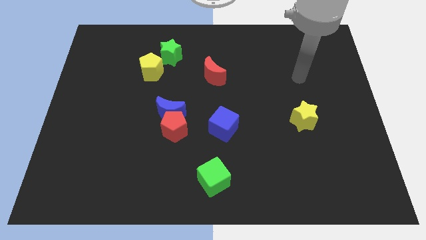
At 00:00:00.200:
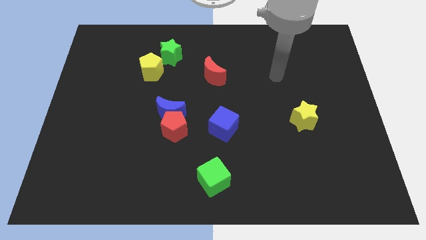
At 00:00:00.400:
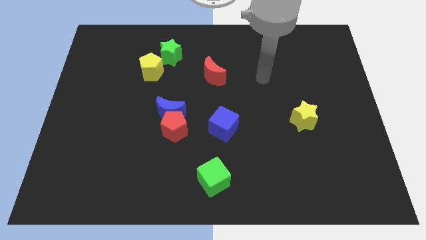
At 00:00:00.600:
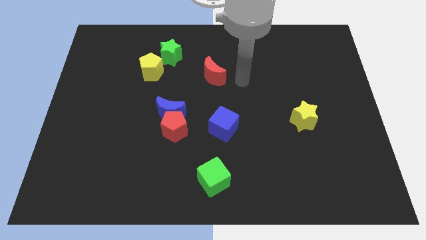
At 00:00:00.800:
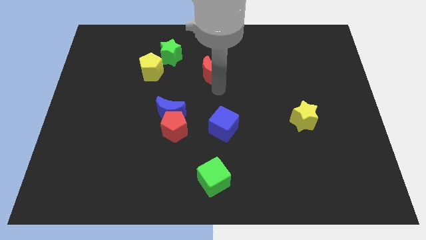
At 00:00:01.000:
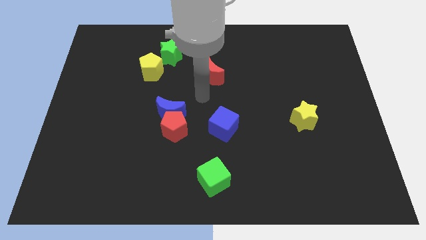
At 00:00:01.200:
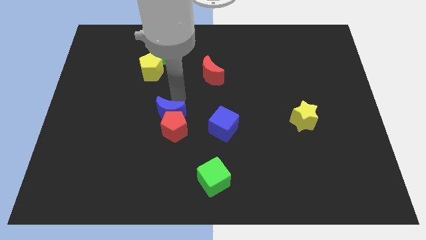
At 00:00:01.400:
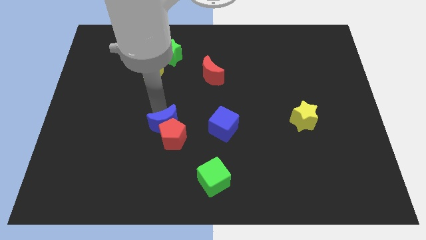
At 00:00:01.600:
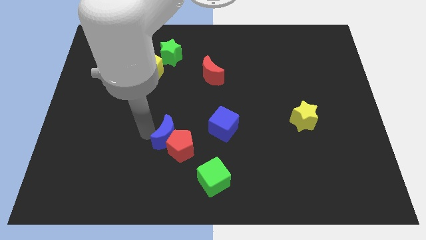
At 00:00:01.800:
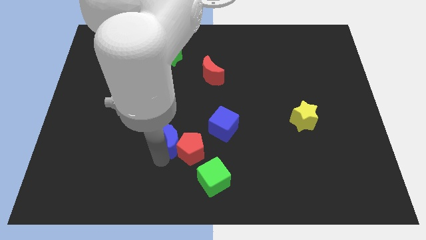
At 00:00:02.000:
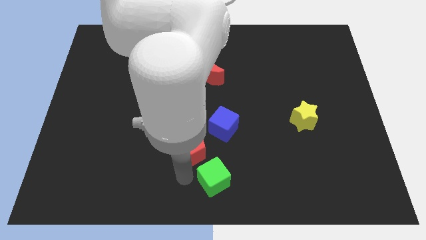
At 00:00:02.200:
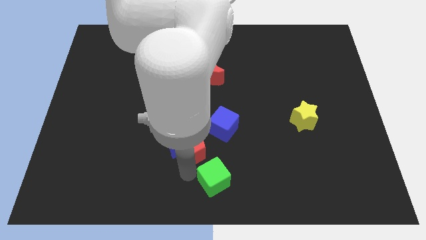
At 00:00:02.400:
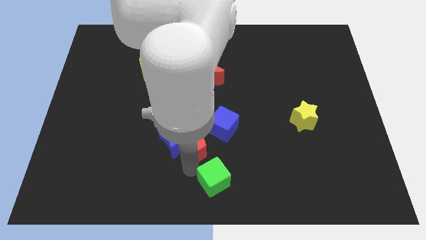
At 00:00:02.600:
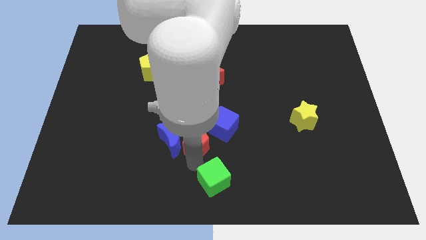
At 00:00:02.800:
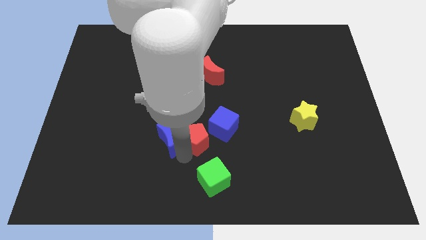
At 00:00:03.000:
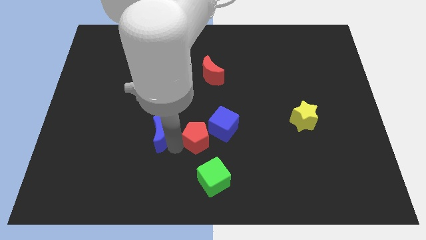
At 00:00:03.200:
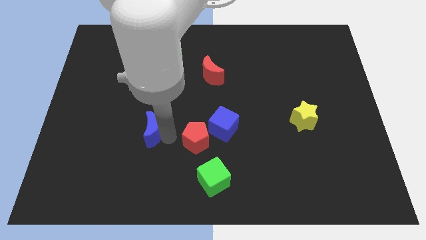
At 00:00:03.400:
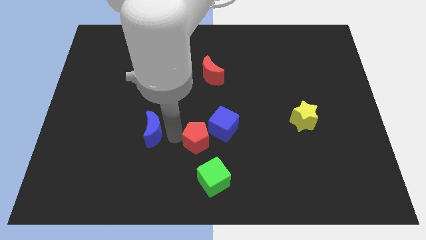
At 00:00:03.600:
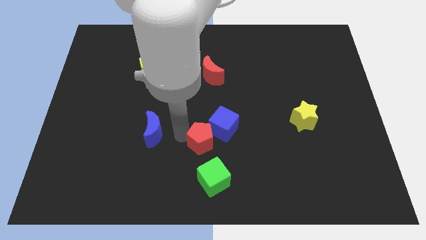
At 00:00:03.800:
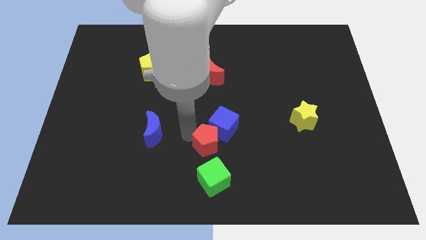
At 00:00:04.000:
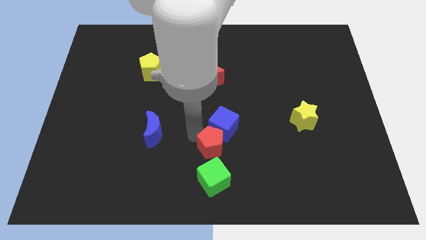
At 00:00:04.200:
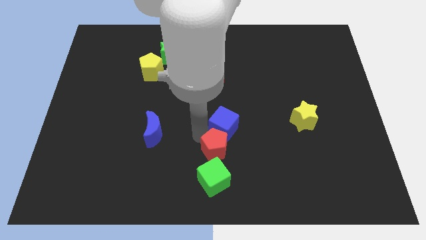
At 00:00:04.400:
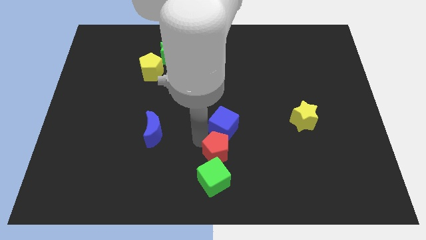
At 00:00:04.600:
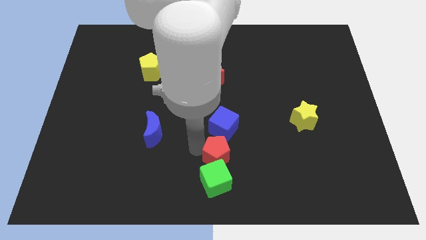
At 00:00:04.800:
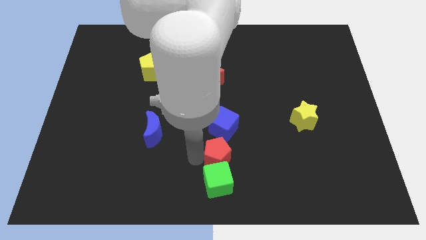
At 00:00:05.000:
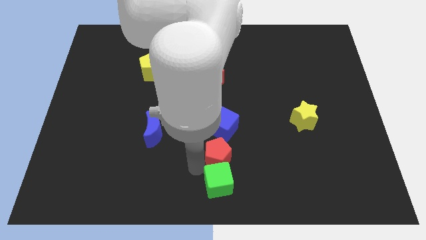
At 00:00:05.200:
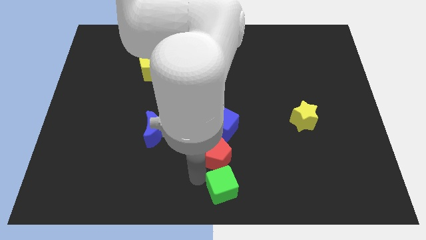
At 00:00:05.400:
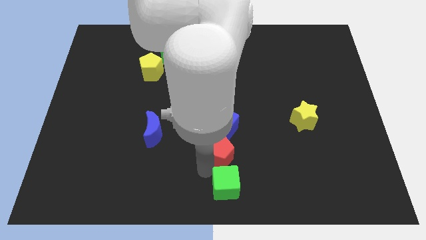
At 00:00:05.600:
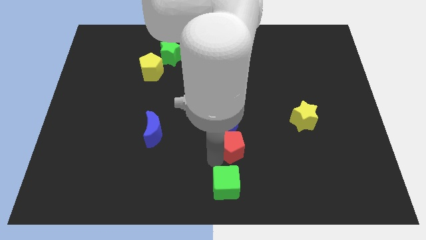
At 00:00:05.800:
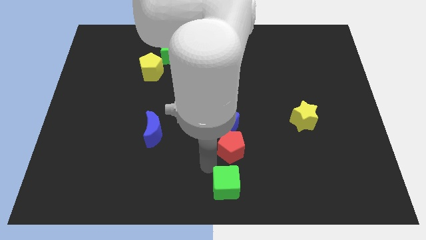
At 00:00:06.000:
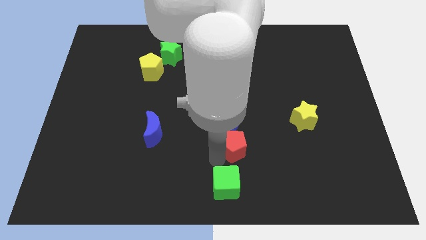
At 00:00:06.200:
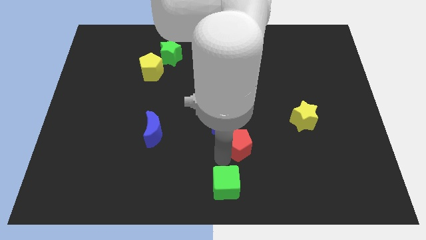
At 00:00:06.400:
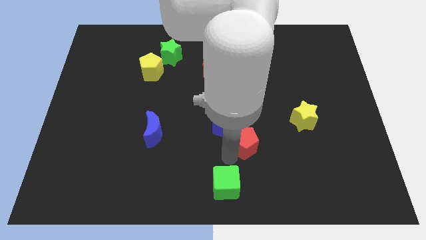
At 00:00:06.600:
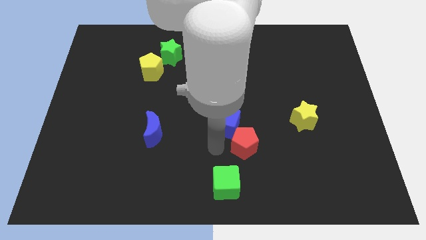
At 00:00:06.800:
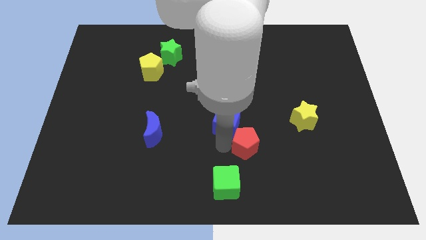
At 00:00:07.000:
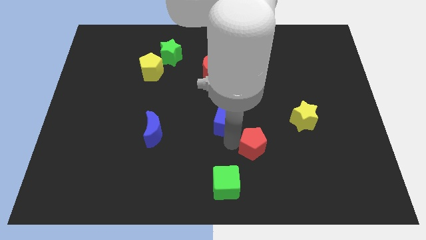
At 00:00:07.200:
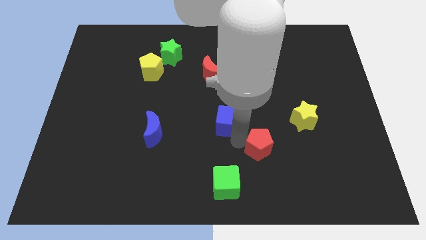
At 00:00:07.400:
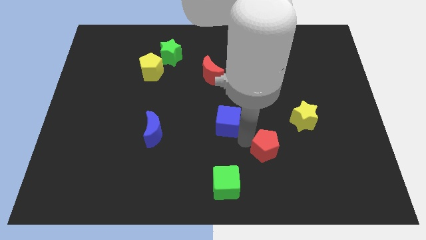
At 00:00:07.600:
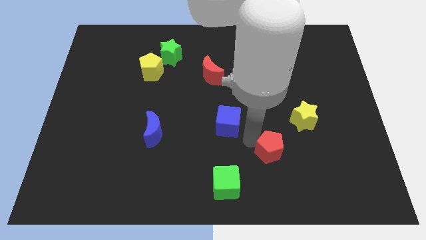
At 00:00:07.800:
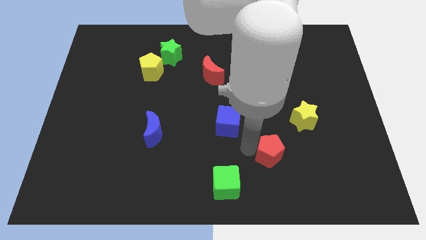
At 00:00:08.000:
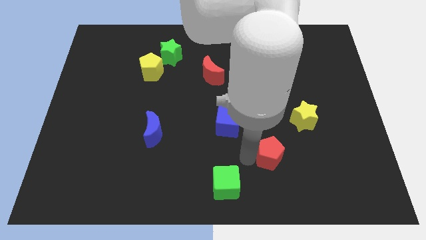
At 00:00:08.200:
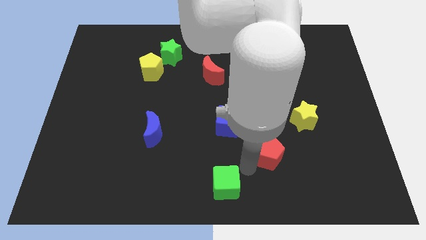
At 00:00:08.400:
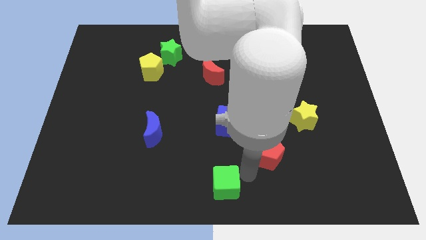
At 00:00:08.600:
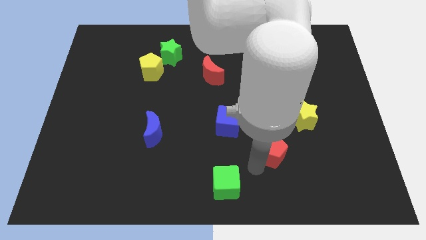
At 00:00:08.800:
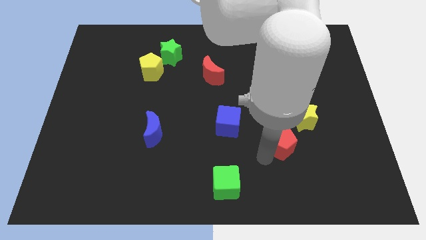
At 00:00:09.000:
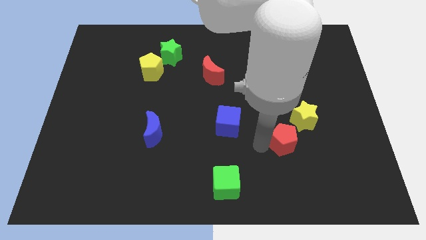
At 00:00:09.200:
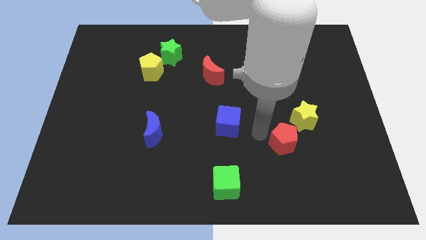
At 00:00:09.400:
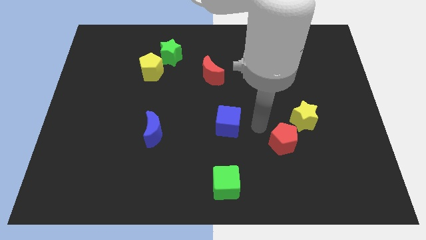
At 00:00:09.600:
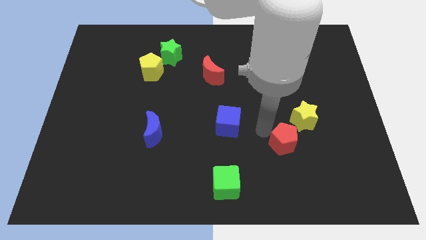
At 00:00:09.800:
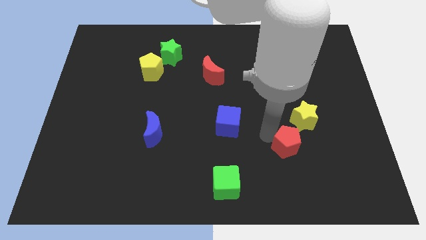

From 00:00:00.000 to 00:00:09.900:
move the red pentagon below the yellow star

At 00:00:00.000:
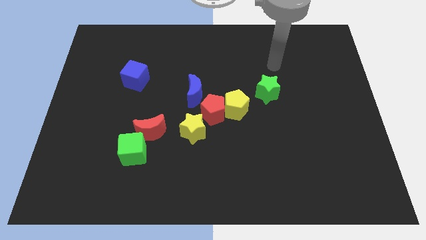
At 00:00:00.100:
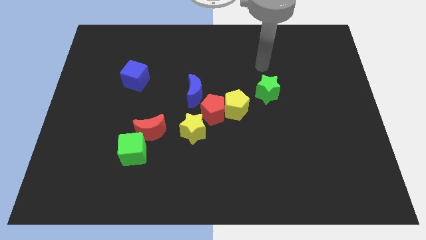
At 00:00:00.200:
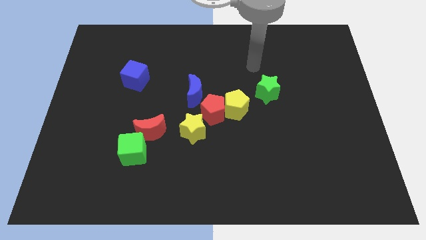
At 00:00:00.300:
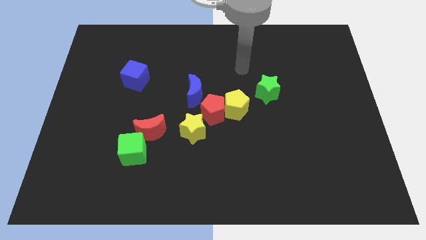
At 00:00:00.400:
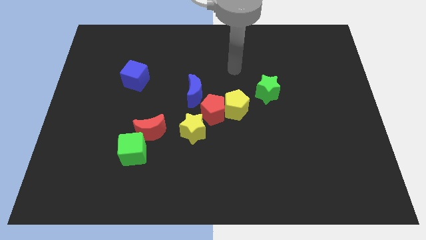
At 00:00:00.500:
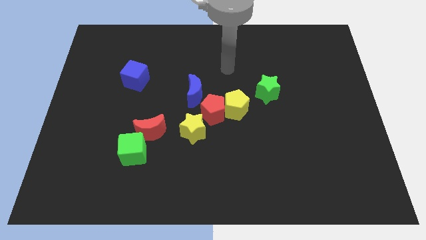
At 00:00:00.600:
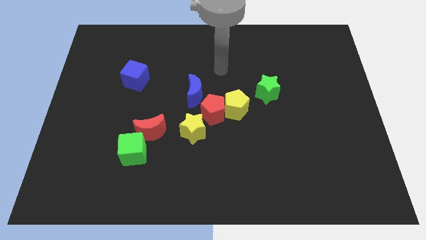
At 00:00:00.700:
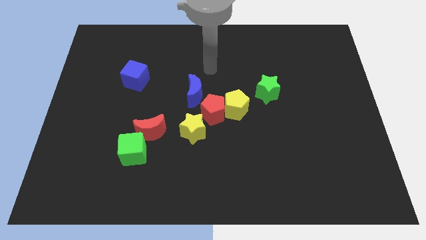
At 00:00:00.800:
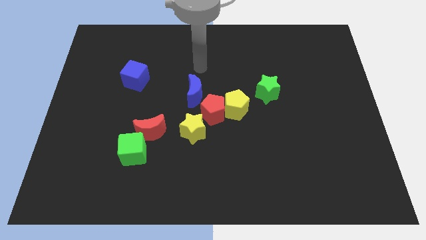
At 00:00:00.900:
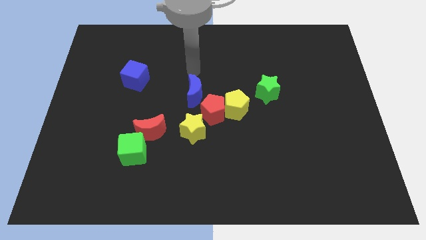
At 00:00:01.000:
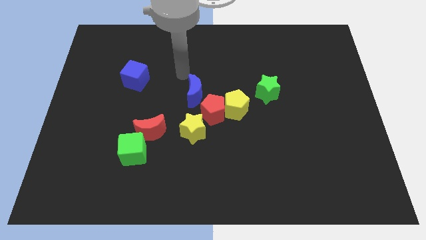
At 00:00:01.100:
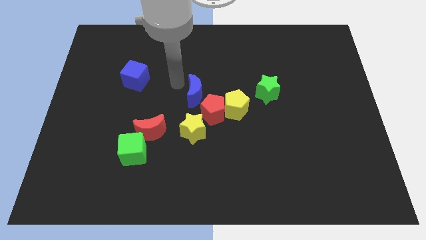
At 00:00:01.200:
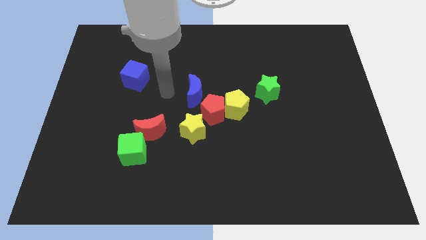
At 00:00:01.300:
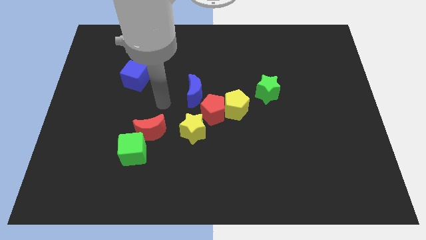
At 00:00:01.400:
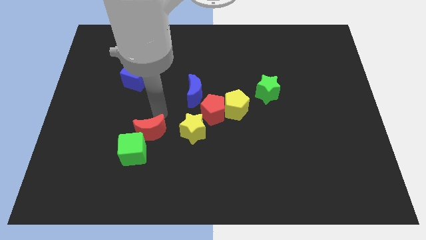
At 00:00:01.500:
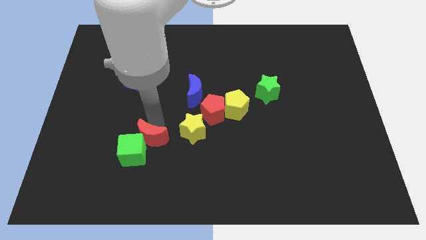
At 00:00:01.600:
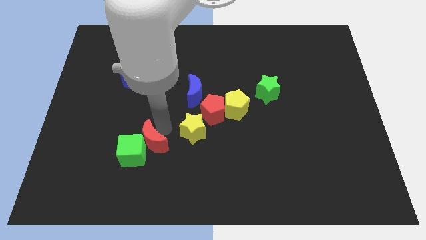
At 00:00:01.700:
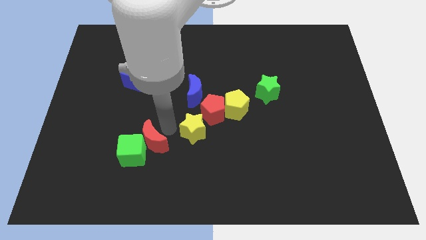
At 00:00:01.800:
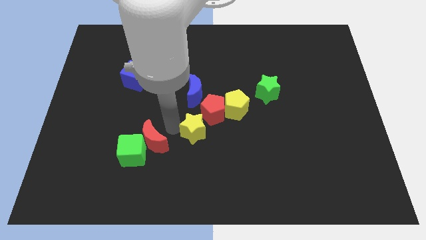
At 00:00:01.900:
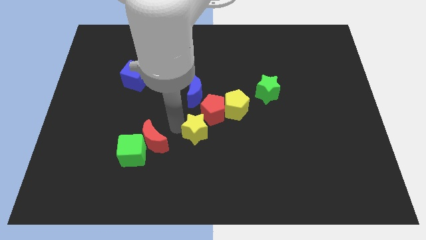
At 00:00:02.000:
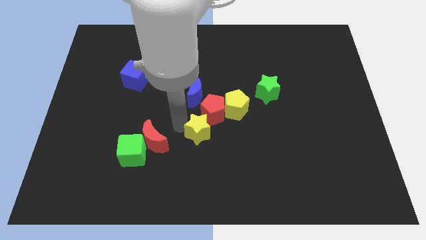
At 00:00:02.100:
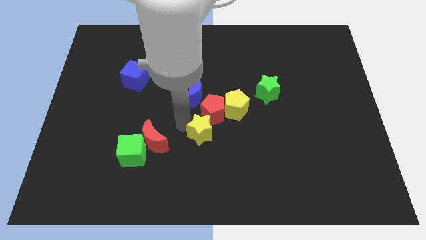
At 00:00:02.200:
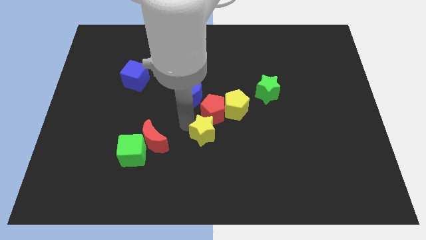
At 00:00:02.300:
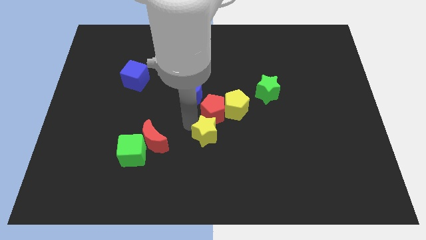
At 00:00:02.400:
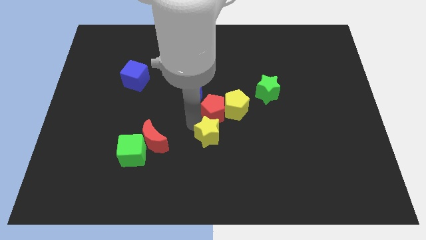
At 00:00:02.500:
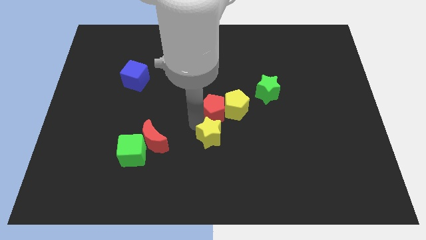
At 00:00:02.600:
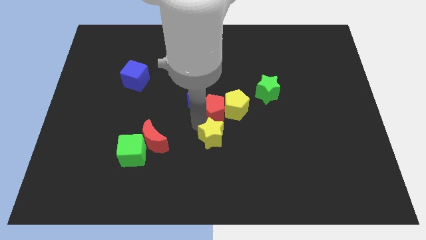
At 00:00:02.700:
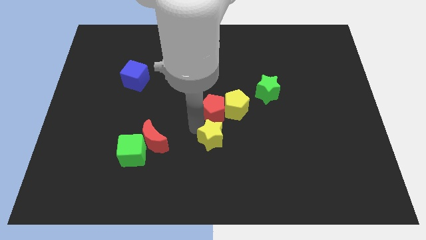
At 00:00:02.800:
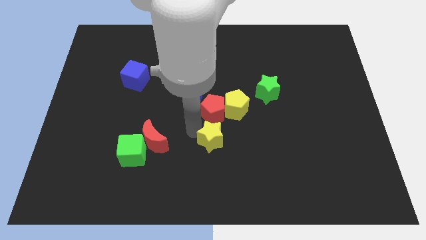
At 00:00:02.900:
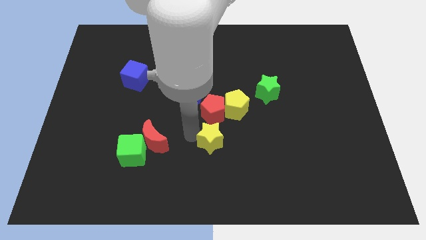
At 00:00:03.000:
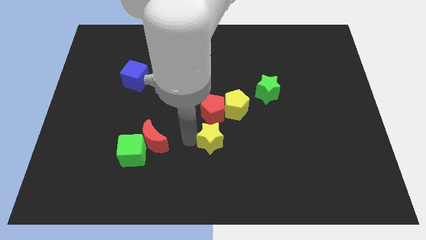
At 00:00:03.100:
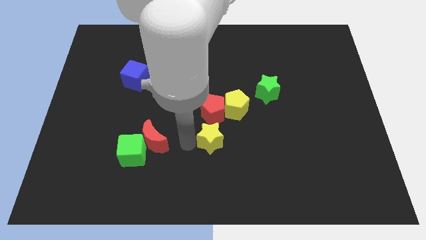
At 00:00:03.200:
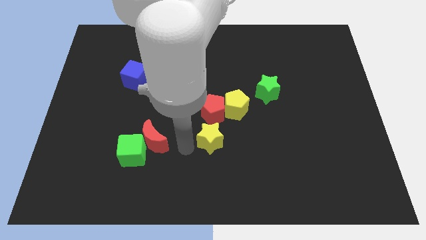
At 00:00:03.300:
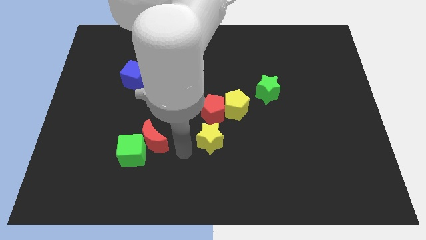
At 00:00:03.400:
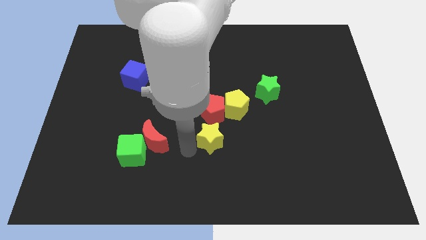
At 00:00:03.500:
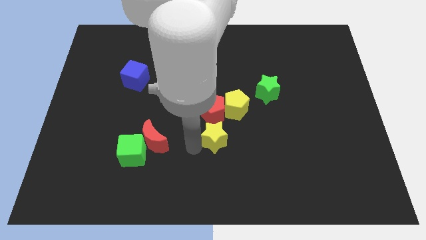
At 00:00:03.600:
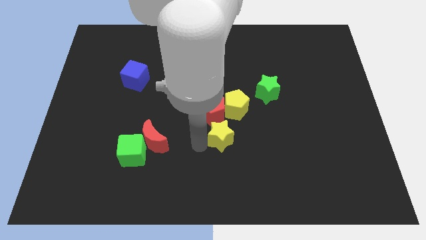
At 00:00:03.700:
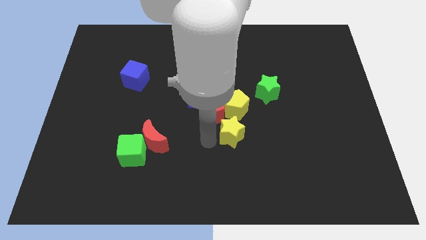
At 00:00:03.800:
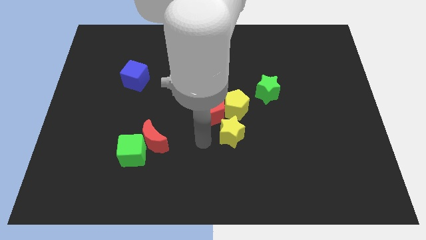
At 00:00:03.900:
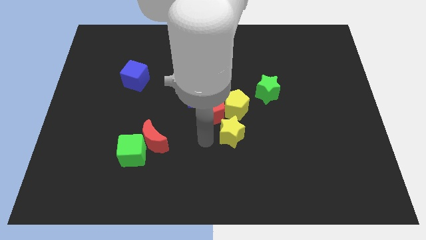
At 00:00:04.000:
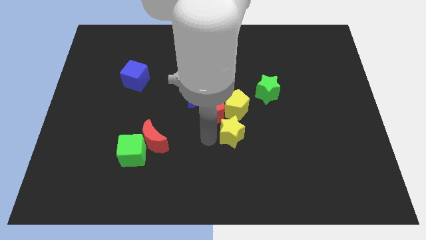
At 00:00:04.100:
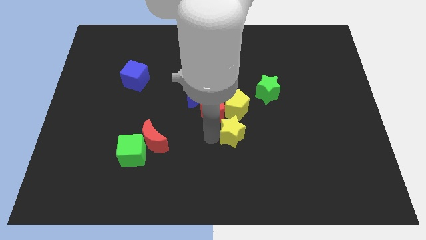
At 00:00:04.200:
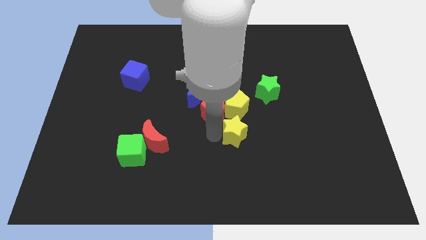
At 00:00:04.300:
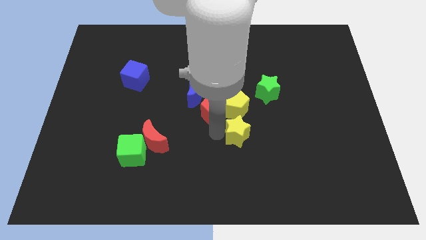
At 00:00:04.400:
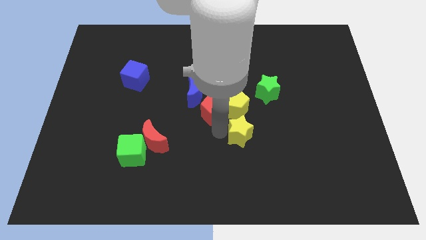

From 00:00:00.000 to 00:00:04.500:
put the yellow star to the bottom right of the yellow pentagon
